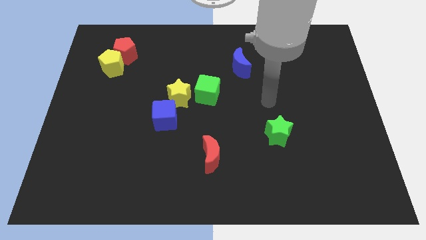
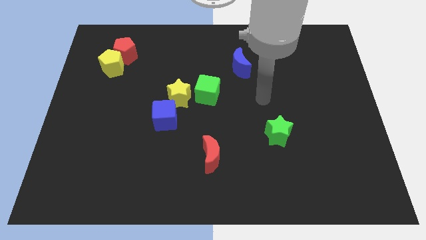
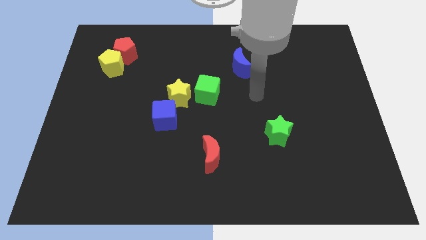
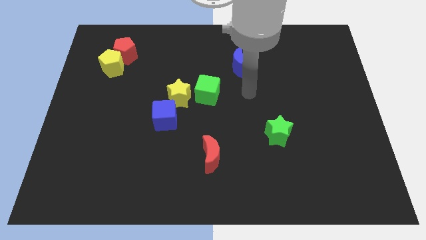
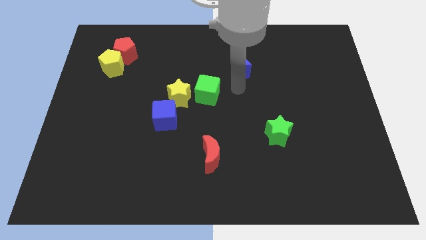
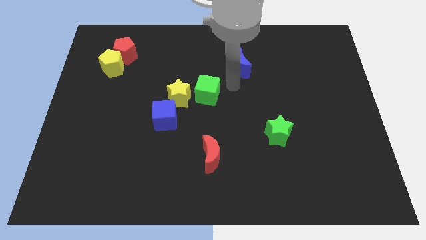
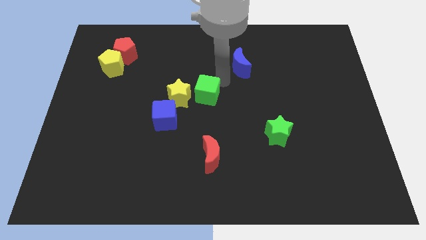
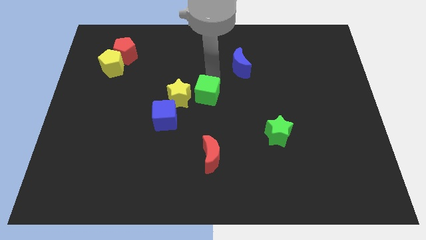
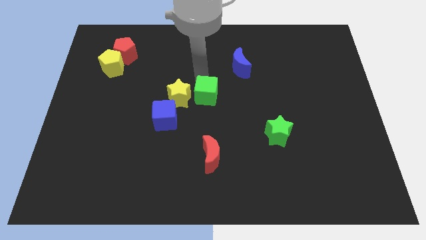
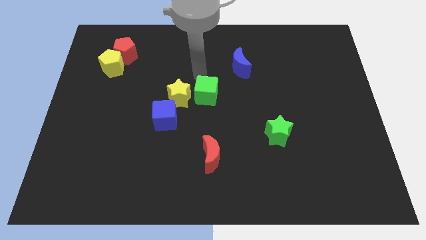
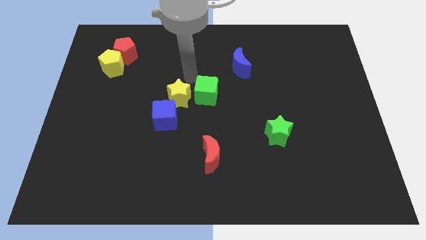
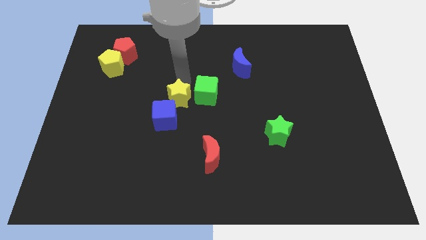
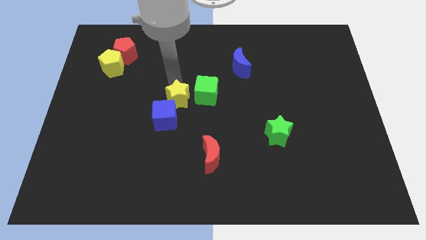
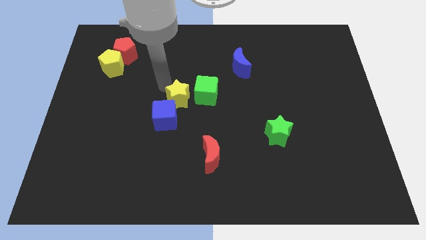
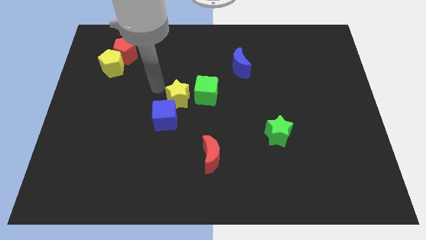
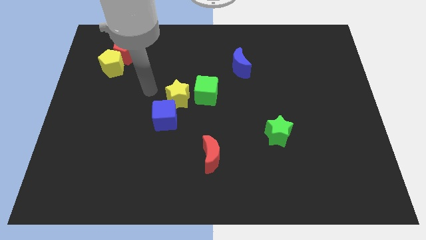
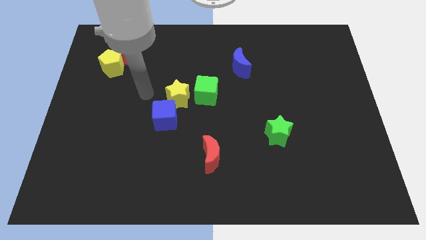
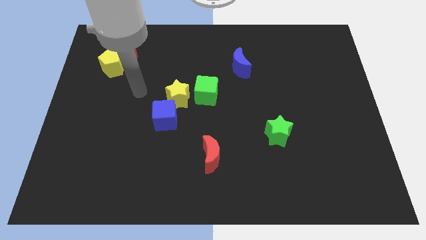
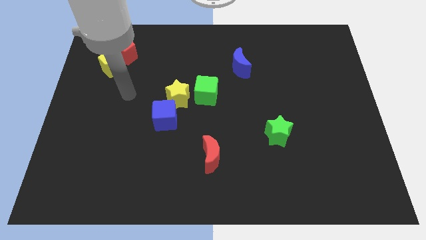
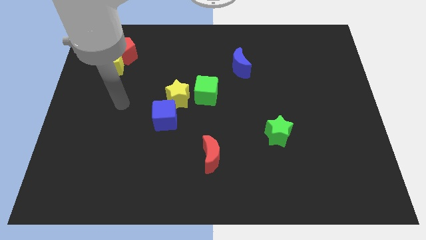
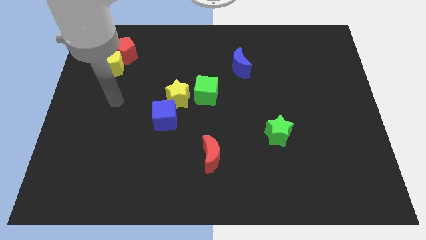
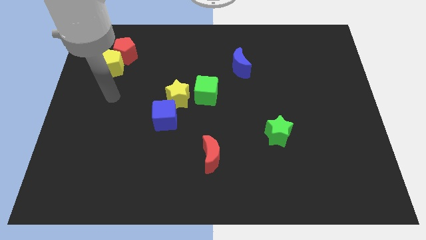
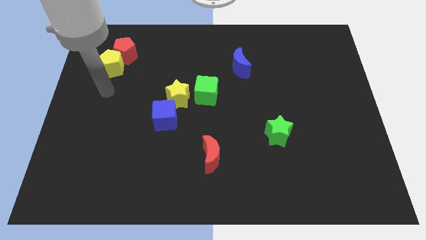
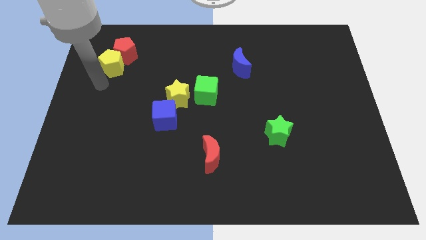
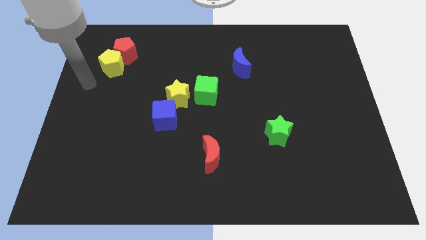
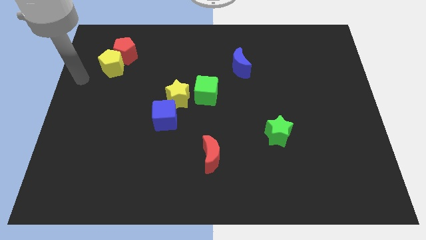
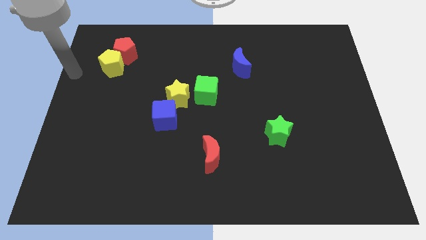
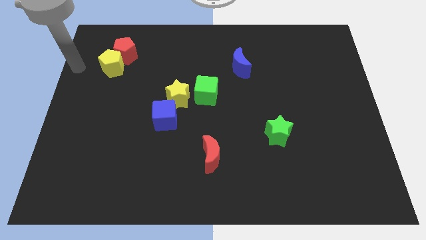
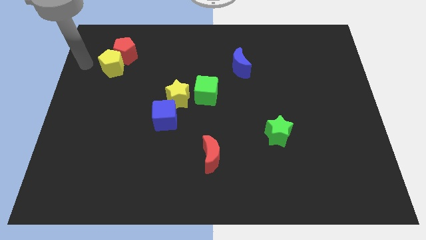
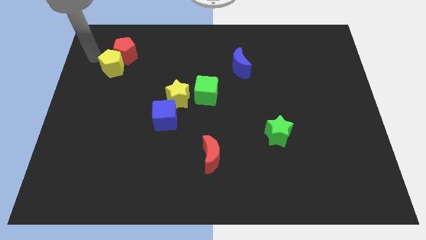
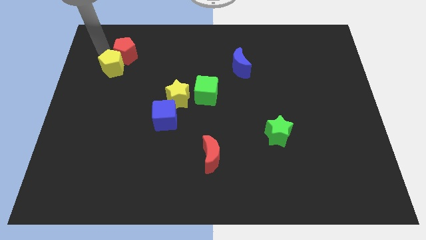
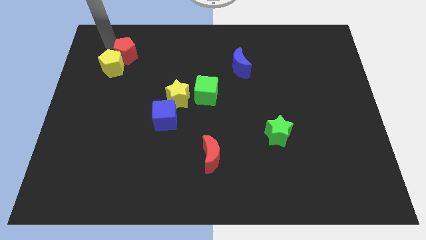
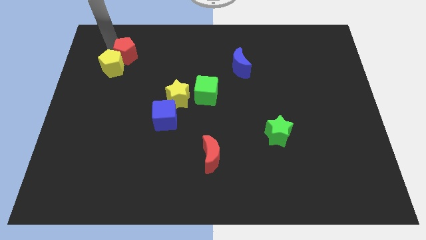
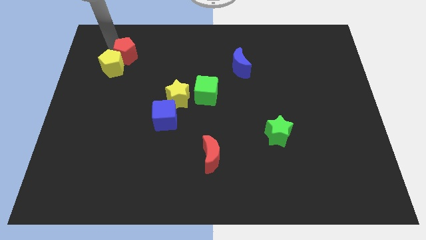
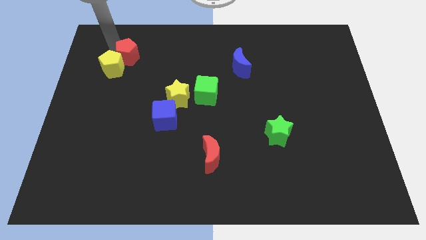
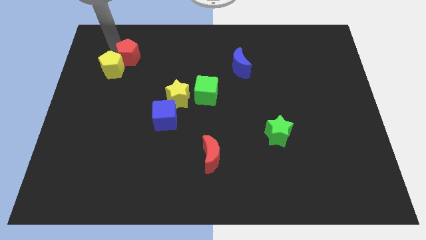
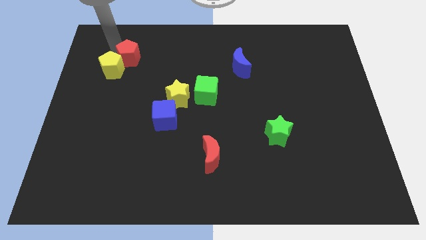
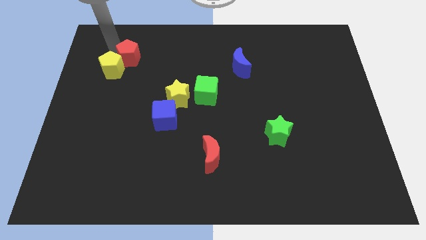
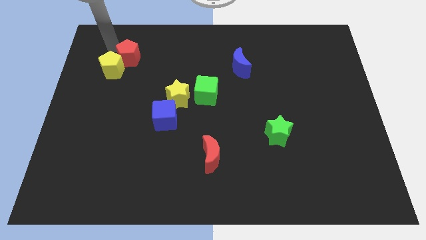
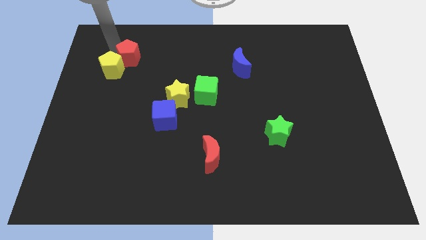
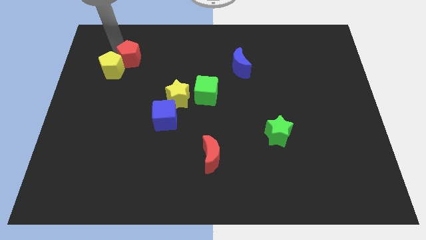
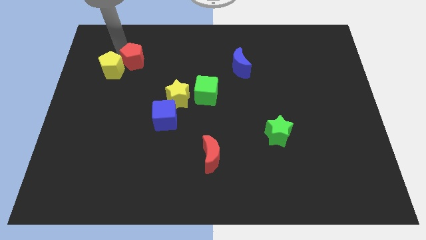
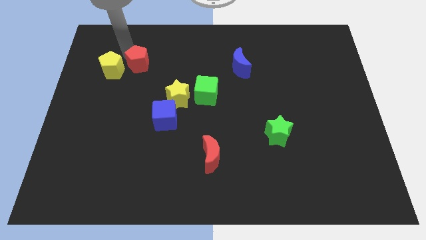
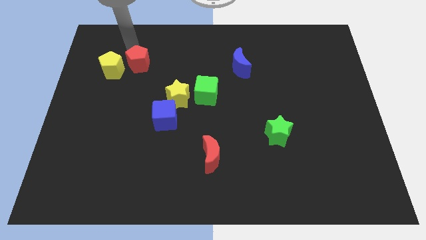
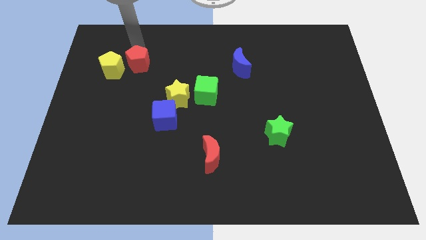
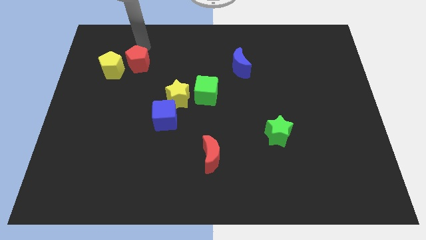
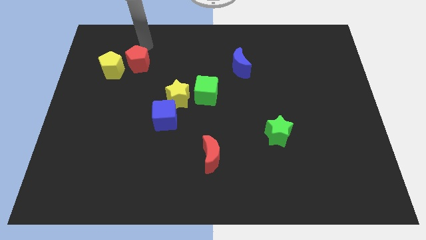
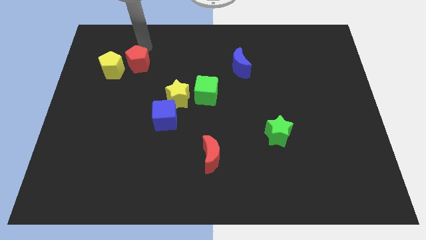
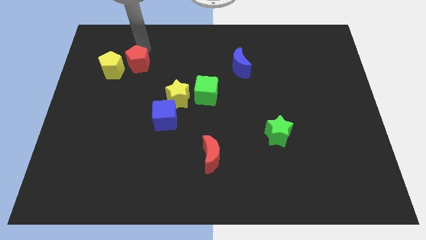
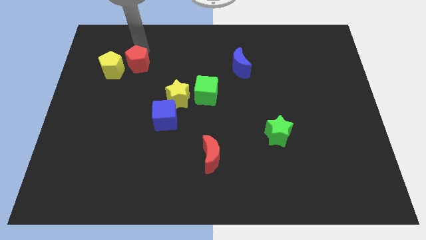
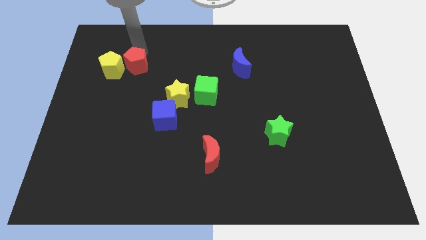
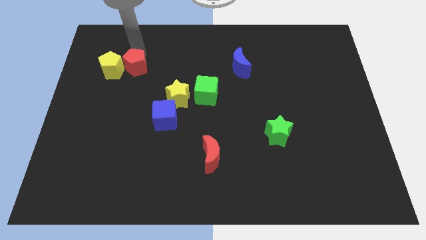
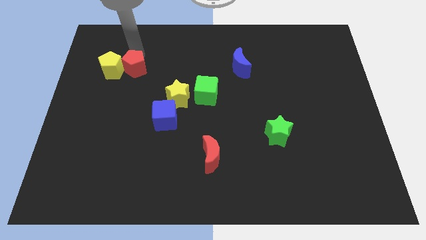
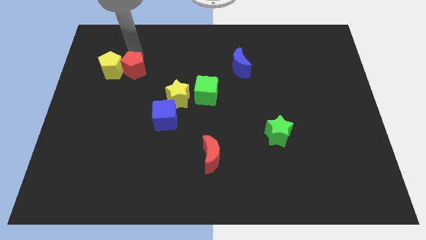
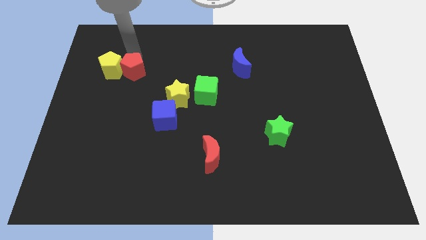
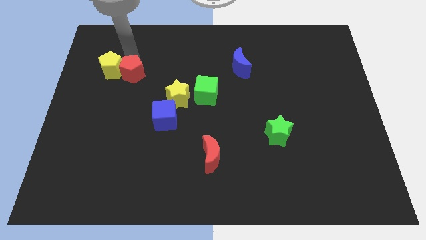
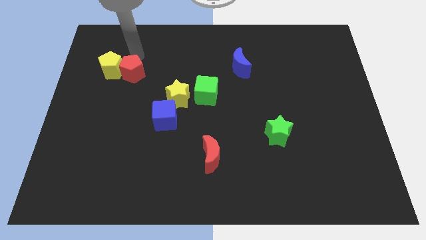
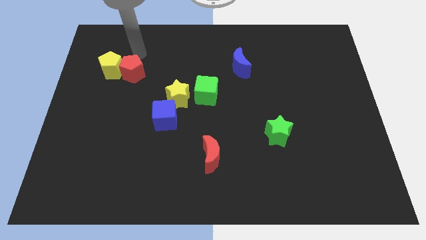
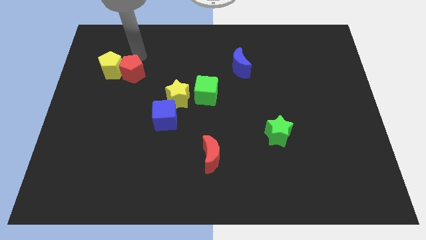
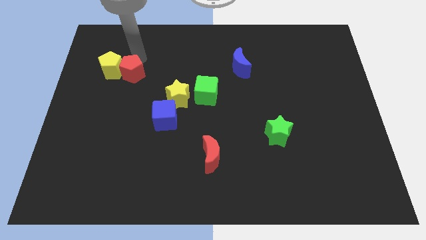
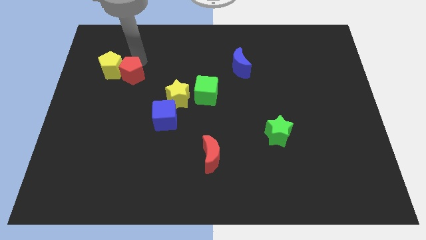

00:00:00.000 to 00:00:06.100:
push the red pentagon down a little bit

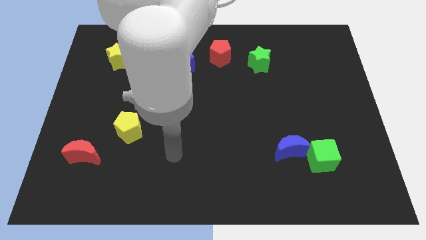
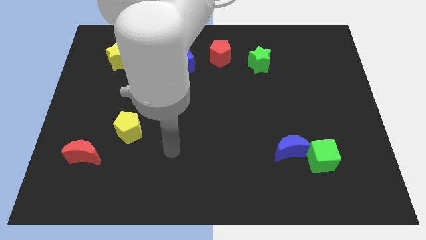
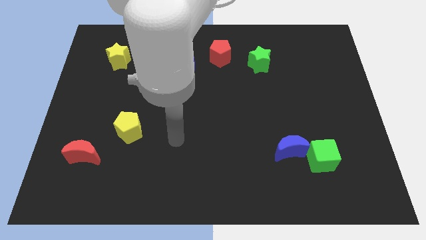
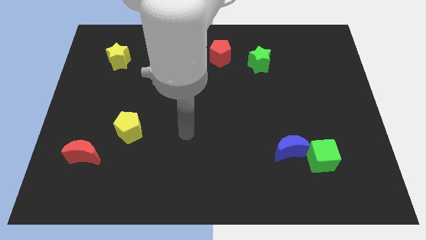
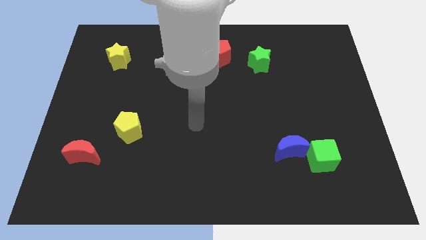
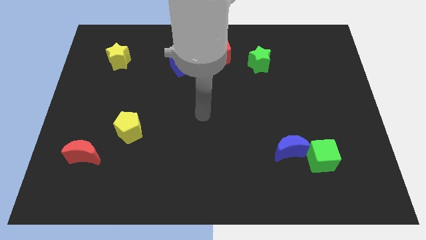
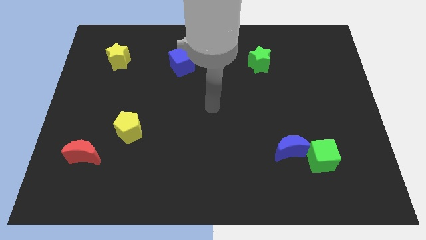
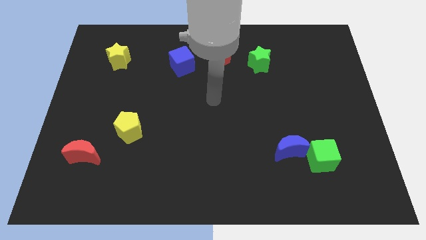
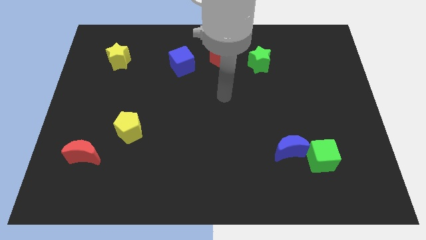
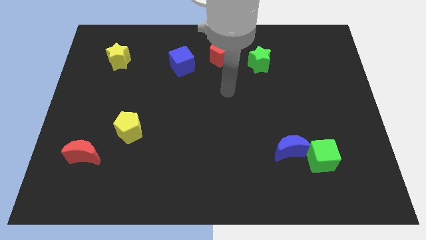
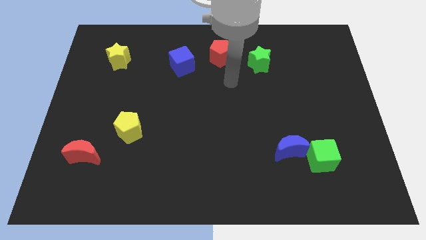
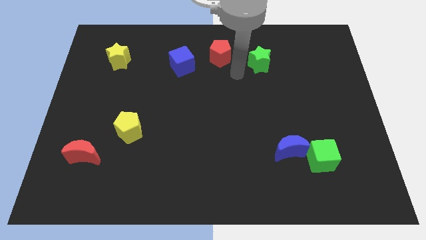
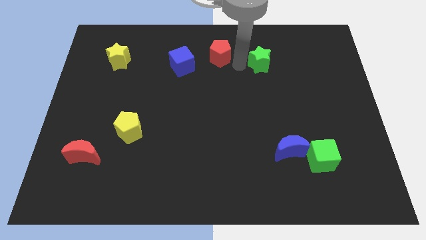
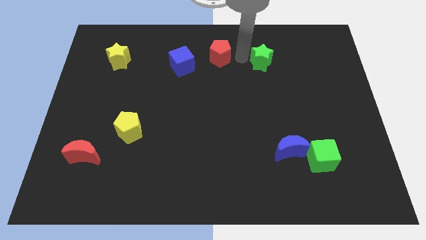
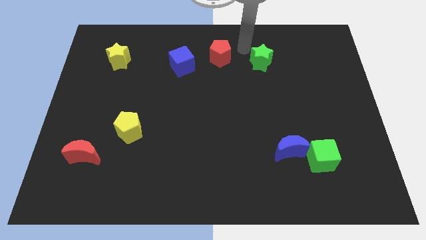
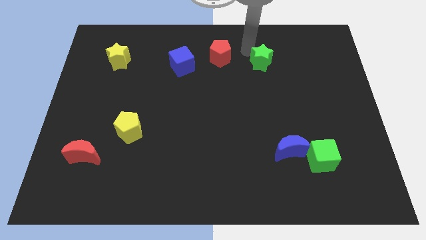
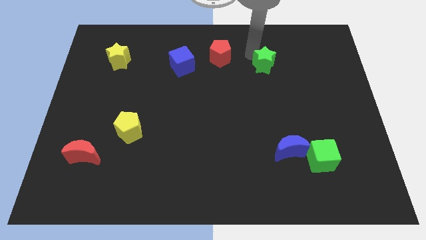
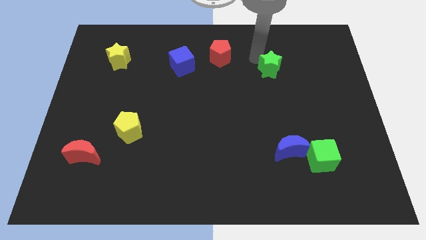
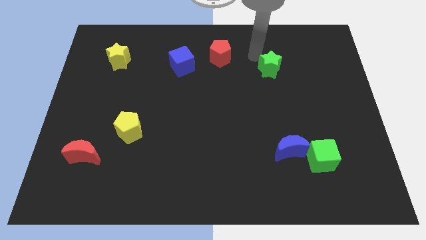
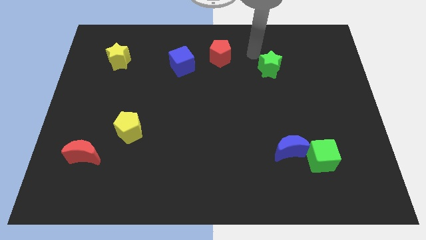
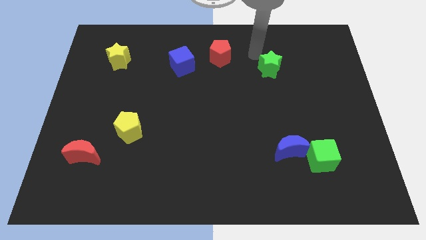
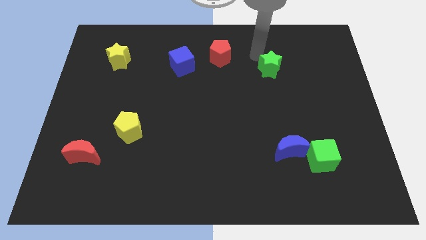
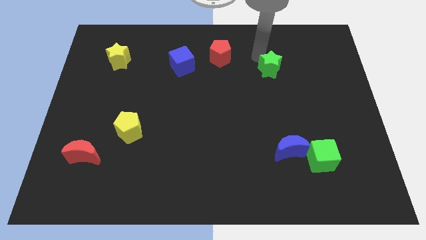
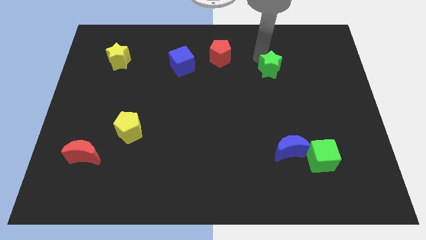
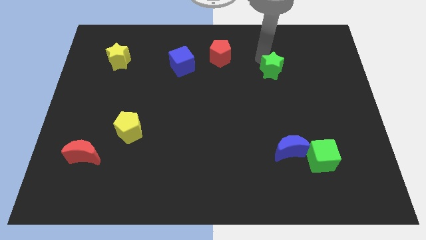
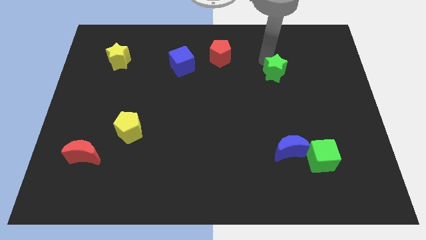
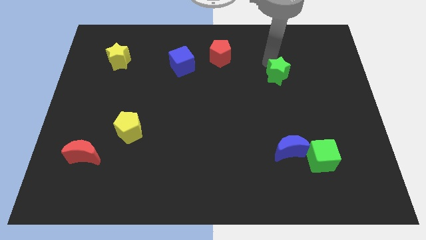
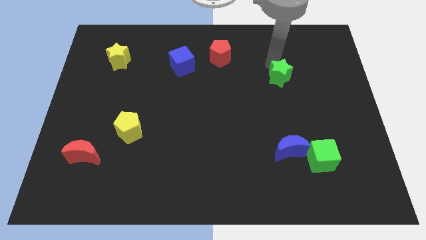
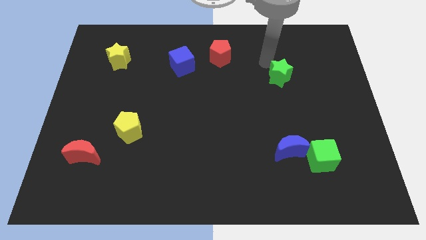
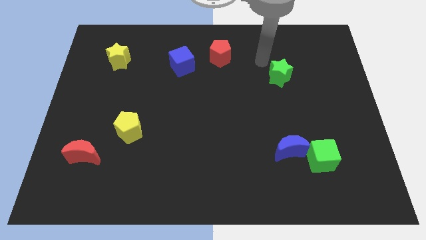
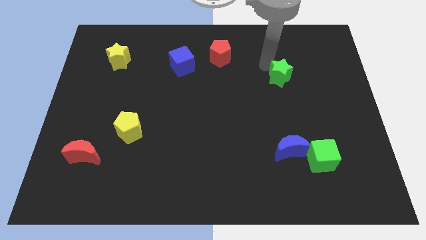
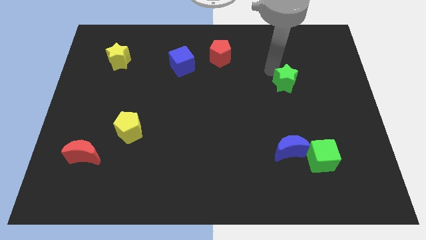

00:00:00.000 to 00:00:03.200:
slightly move the green star diagonally down and to the right
